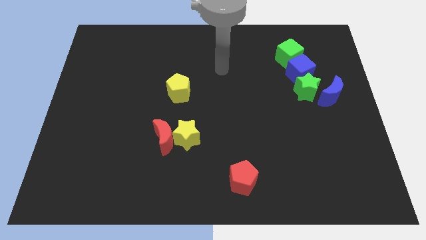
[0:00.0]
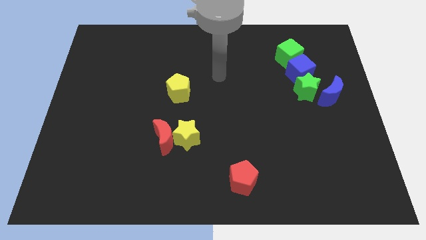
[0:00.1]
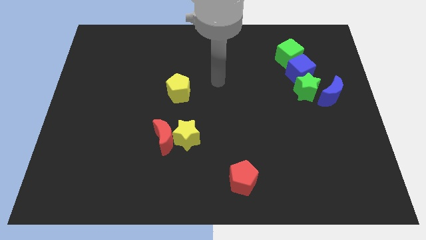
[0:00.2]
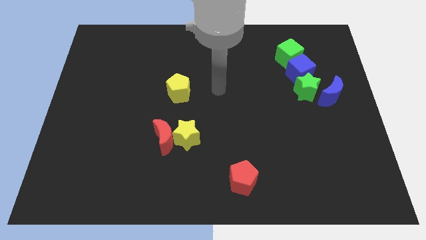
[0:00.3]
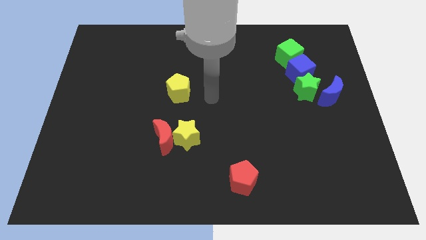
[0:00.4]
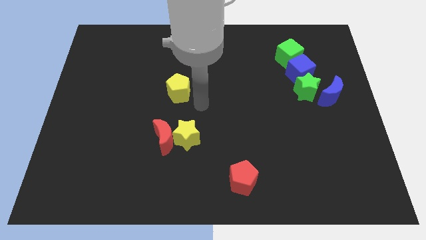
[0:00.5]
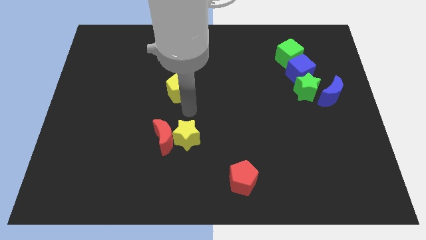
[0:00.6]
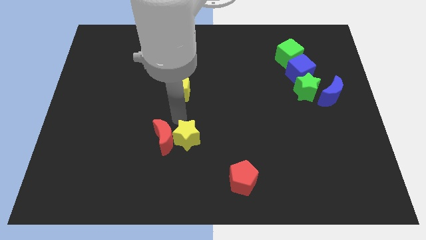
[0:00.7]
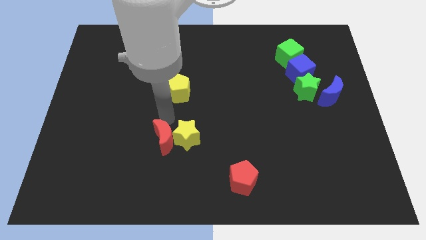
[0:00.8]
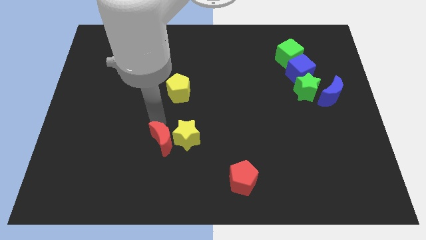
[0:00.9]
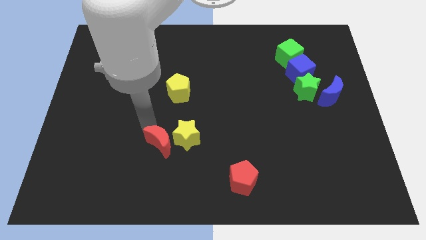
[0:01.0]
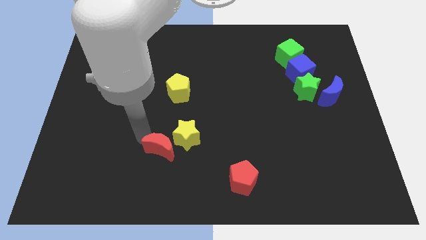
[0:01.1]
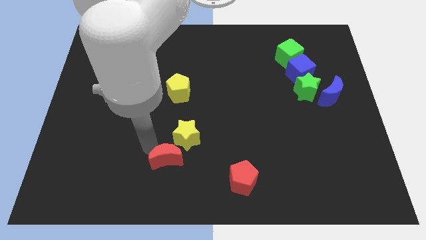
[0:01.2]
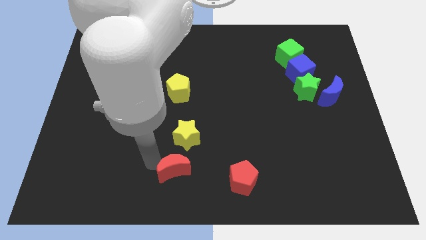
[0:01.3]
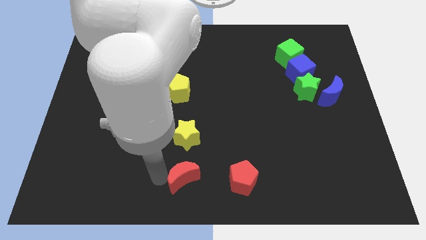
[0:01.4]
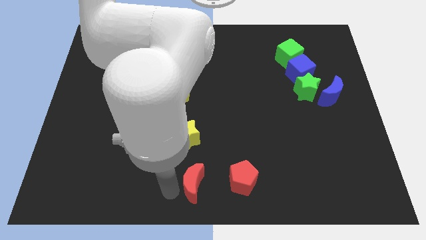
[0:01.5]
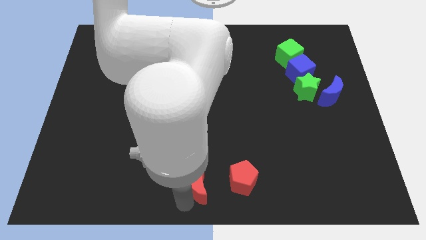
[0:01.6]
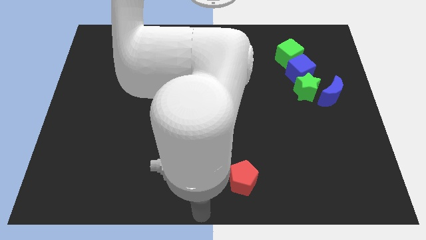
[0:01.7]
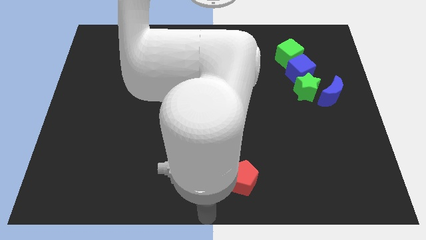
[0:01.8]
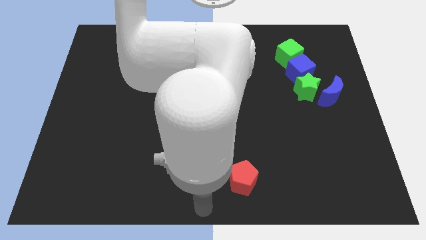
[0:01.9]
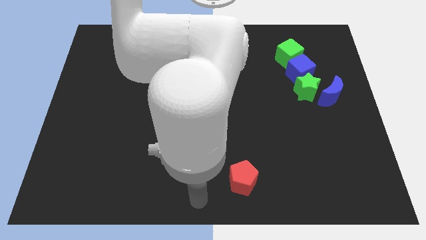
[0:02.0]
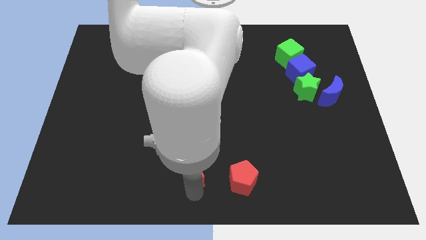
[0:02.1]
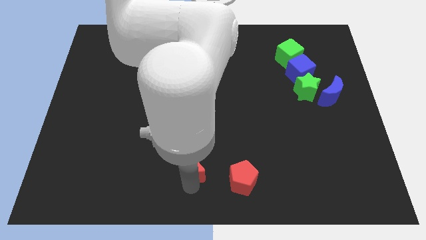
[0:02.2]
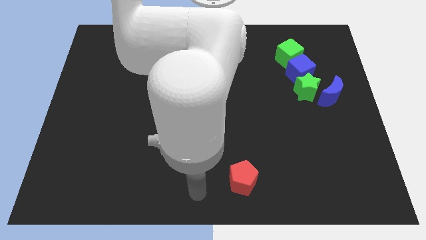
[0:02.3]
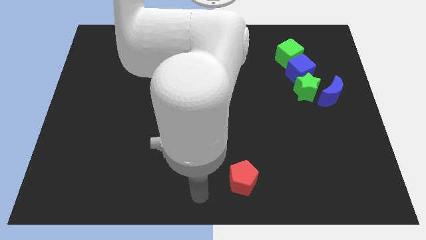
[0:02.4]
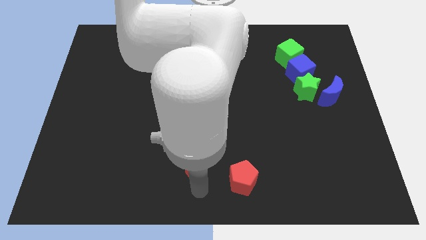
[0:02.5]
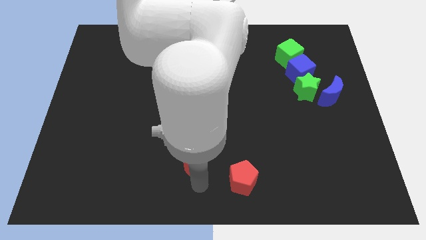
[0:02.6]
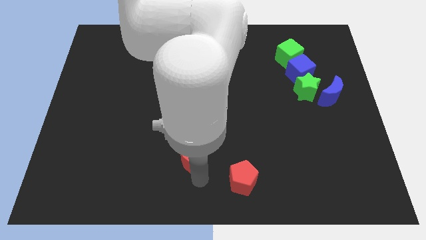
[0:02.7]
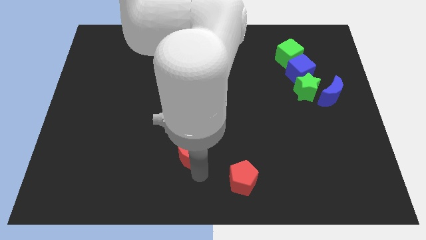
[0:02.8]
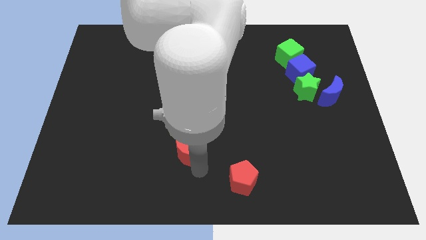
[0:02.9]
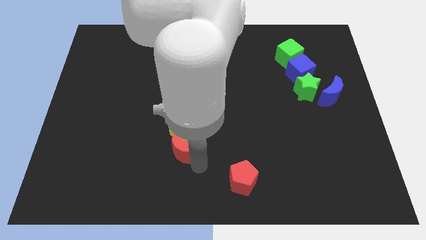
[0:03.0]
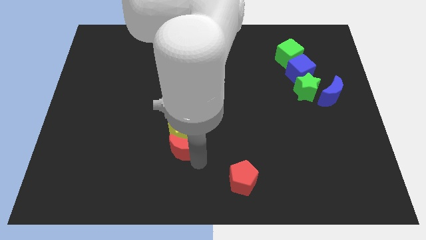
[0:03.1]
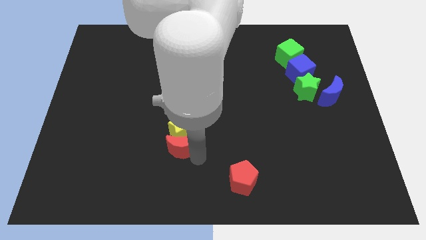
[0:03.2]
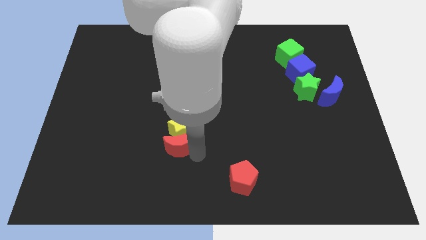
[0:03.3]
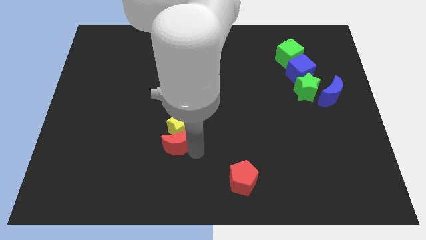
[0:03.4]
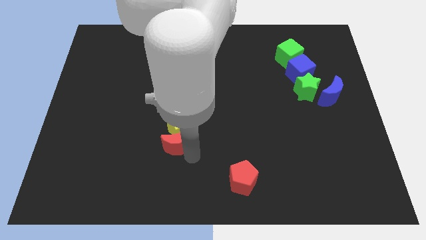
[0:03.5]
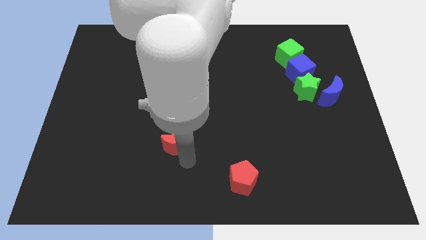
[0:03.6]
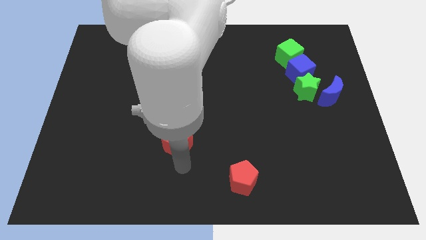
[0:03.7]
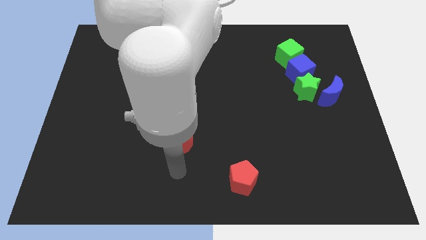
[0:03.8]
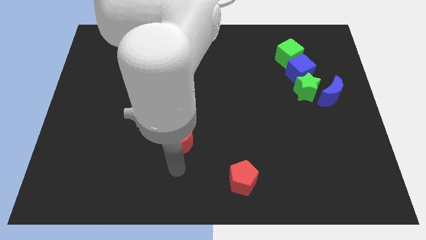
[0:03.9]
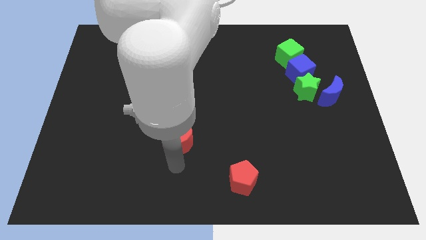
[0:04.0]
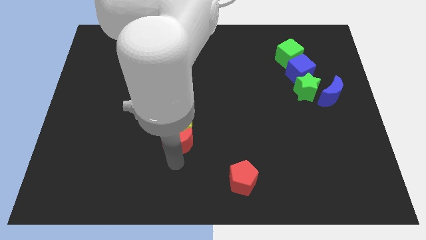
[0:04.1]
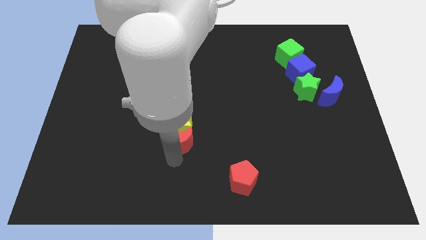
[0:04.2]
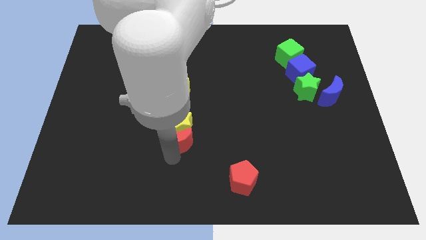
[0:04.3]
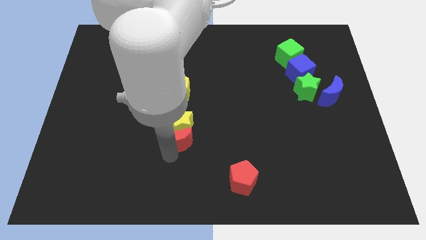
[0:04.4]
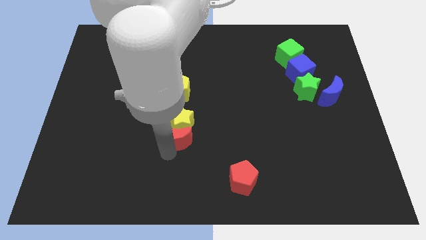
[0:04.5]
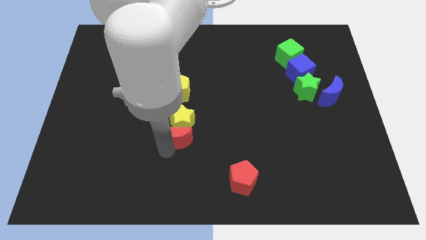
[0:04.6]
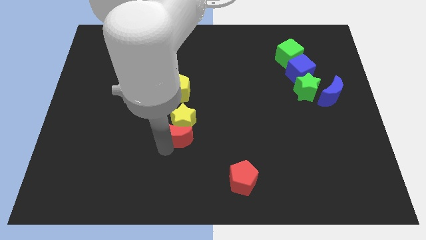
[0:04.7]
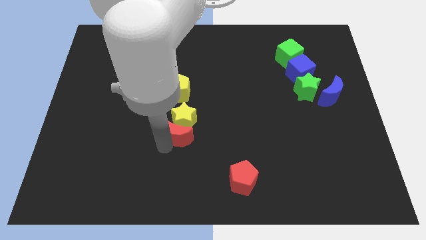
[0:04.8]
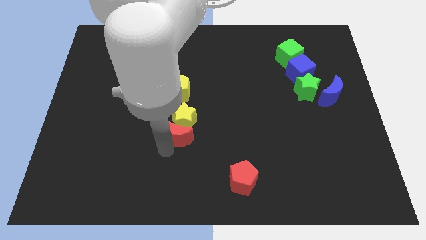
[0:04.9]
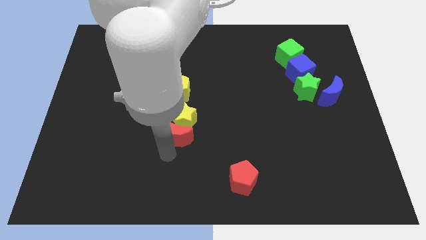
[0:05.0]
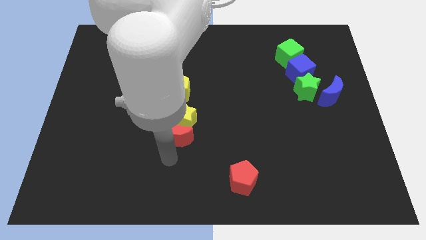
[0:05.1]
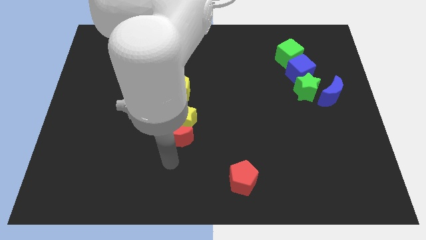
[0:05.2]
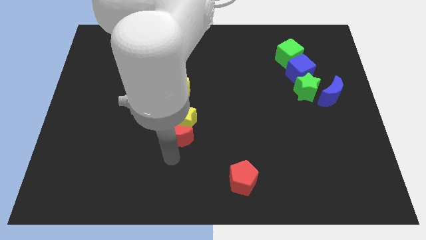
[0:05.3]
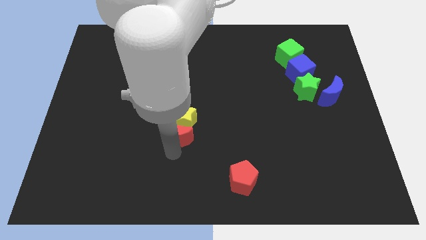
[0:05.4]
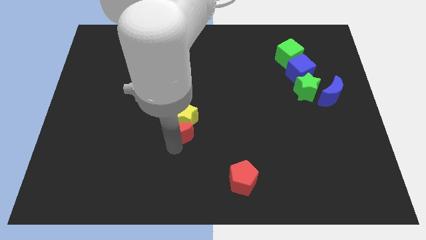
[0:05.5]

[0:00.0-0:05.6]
move the red moon to the middle

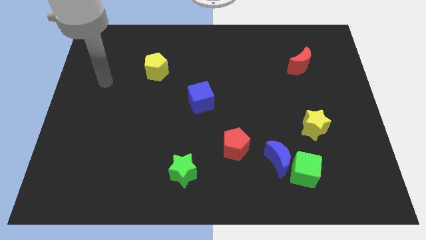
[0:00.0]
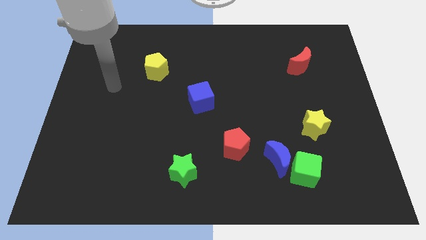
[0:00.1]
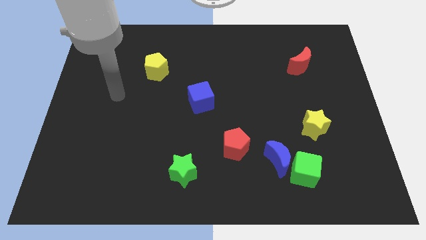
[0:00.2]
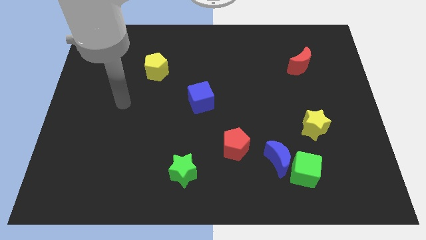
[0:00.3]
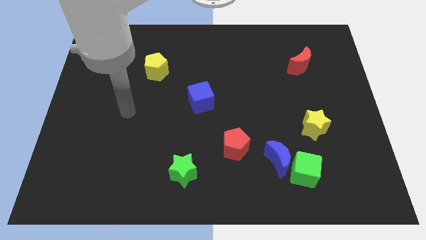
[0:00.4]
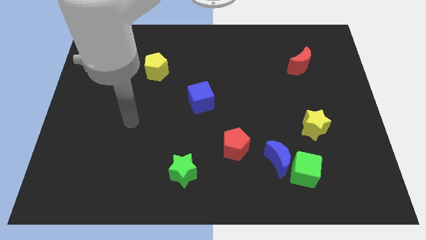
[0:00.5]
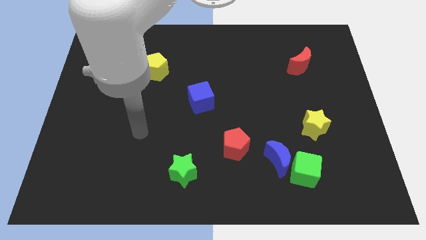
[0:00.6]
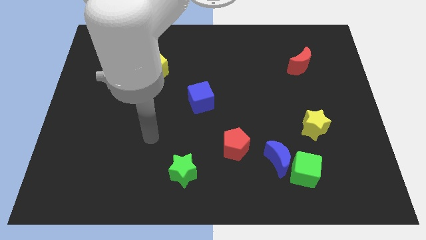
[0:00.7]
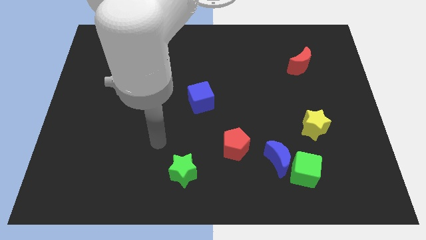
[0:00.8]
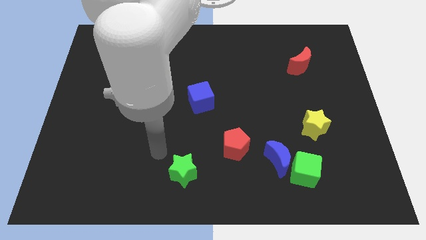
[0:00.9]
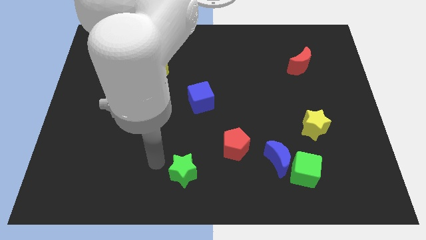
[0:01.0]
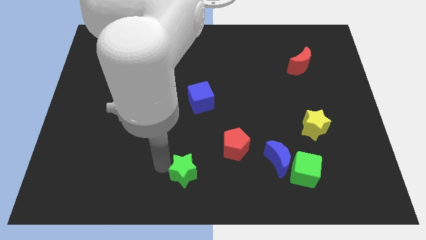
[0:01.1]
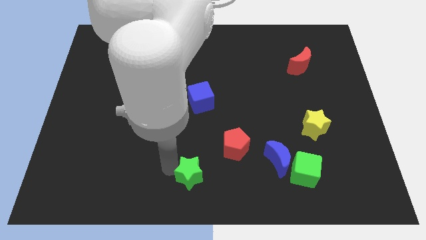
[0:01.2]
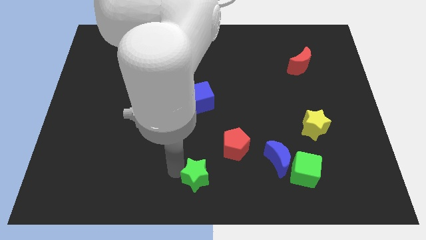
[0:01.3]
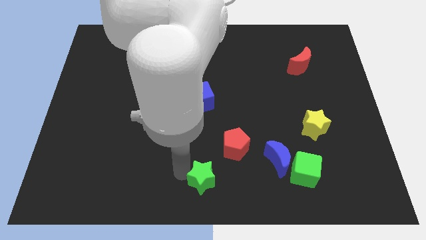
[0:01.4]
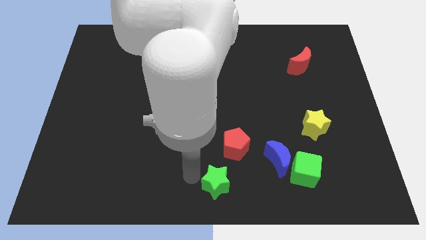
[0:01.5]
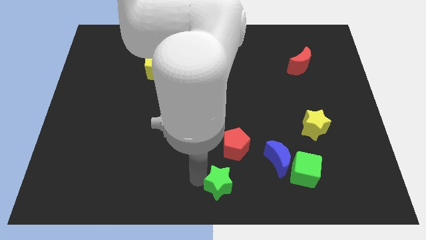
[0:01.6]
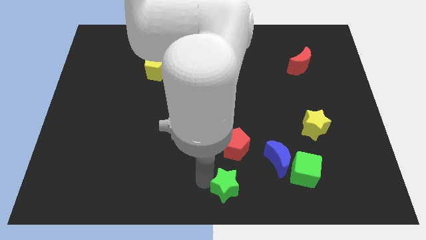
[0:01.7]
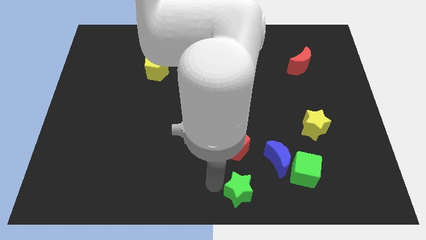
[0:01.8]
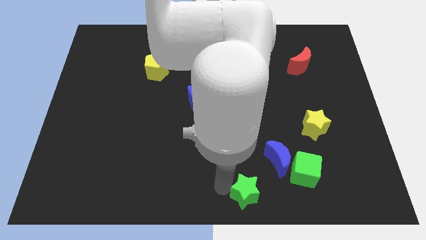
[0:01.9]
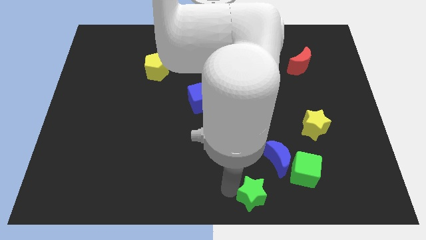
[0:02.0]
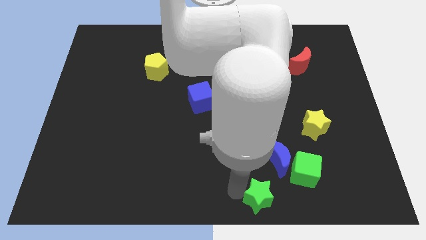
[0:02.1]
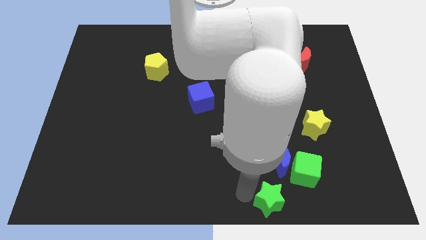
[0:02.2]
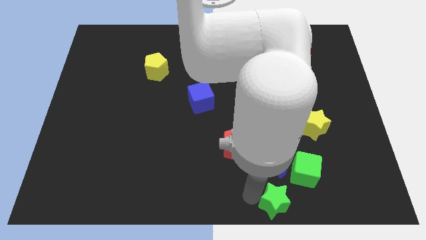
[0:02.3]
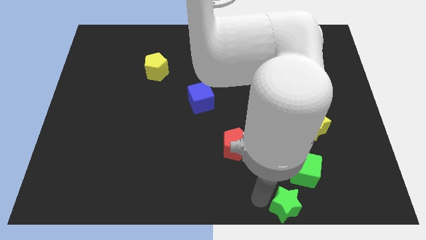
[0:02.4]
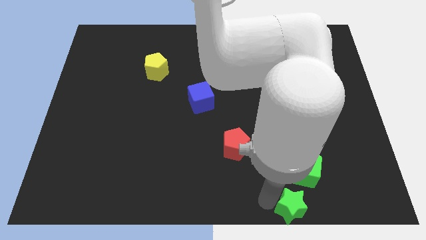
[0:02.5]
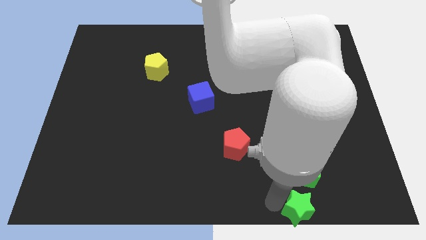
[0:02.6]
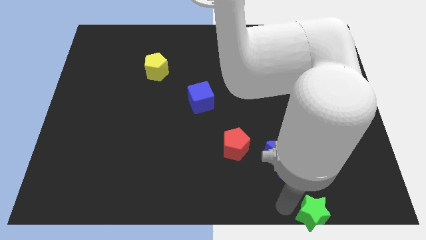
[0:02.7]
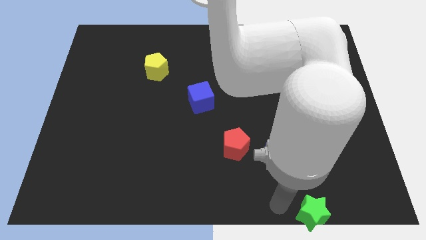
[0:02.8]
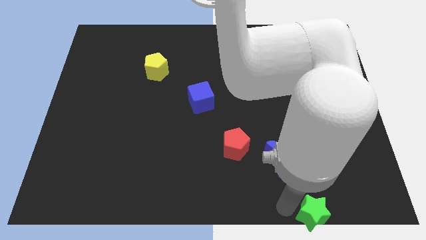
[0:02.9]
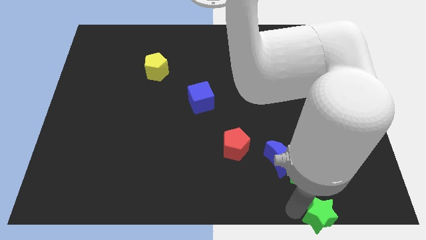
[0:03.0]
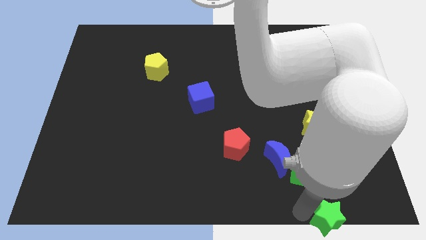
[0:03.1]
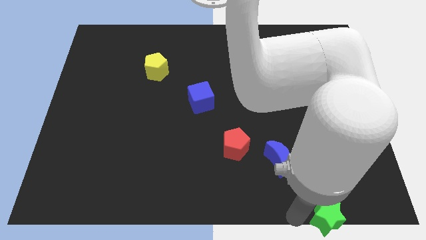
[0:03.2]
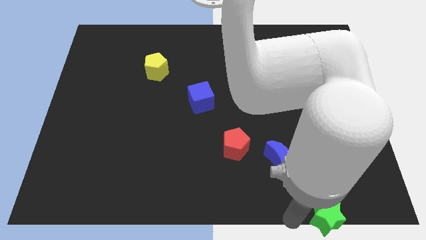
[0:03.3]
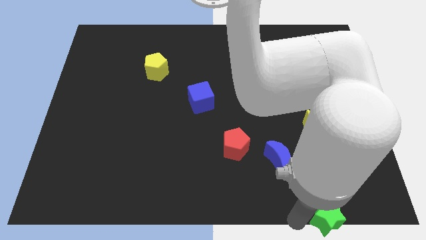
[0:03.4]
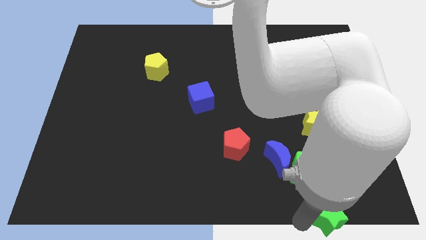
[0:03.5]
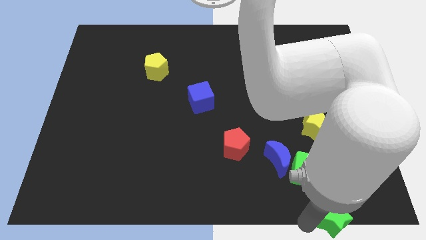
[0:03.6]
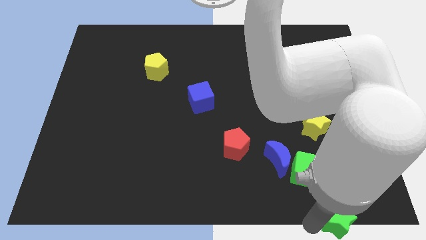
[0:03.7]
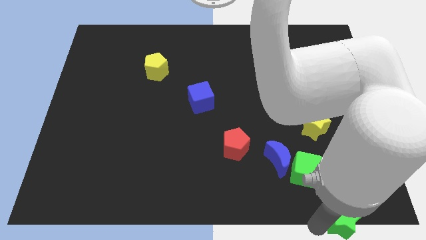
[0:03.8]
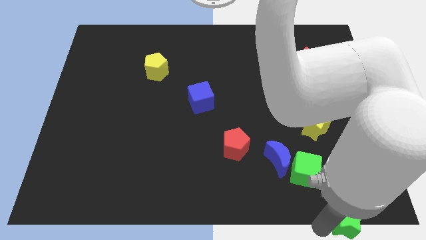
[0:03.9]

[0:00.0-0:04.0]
move the green star to the bottom right corner
